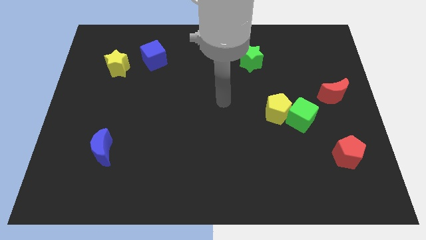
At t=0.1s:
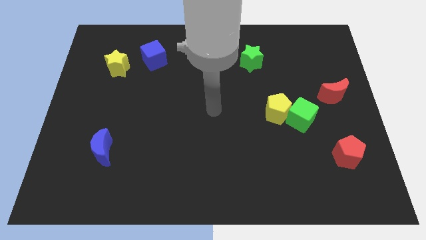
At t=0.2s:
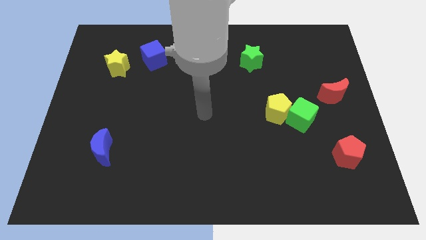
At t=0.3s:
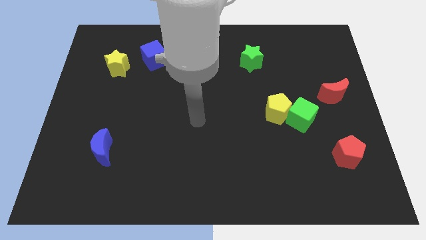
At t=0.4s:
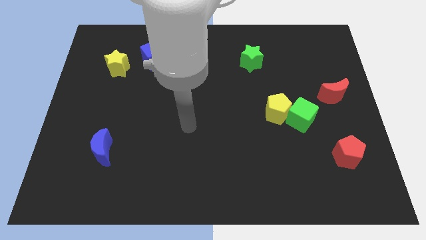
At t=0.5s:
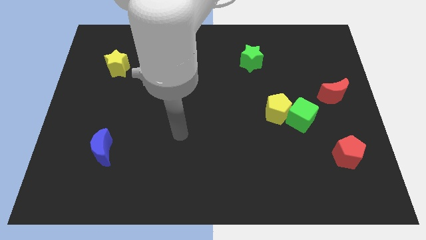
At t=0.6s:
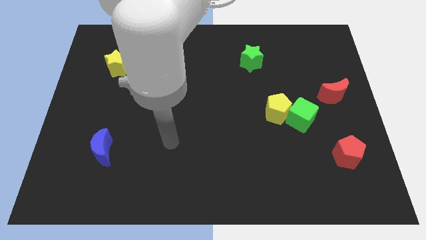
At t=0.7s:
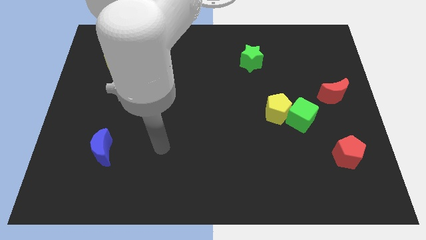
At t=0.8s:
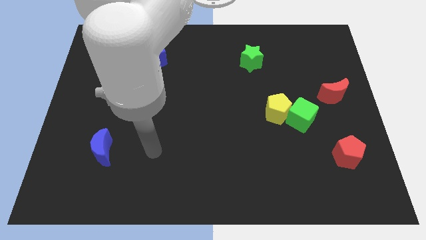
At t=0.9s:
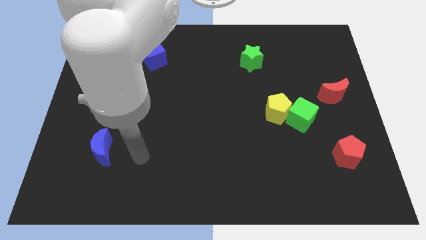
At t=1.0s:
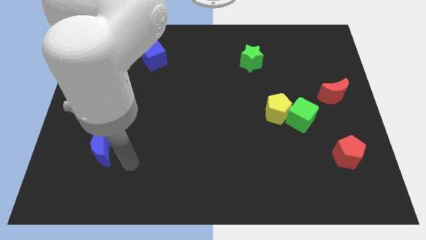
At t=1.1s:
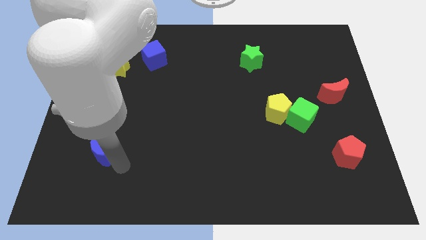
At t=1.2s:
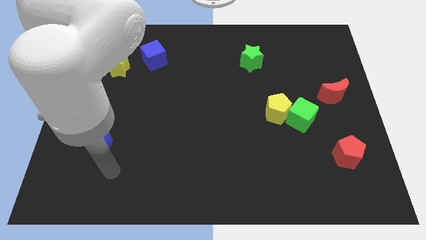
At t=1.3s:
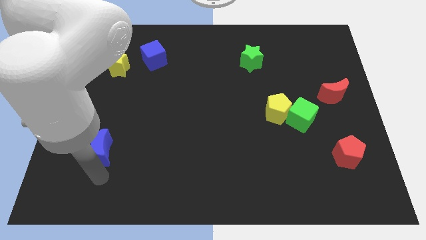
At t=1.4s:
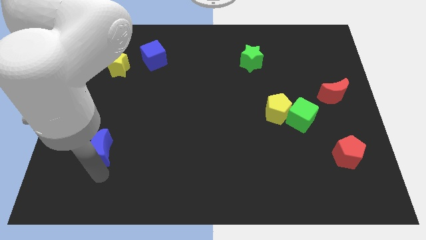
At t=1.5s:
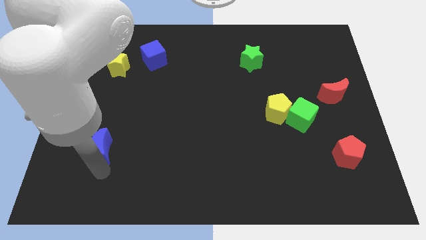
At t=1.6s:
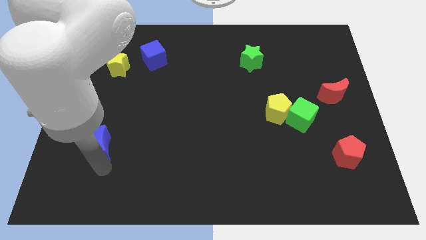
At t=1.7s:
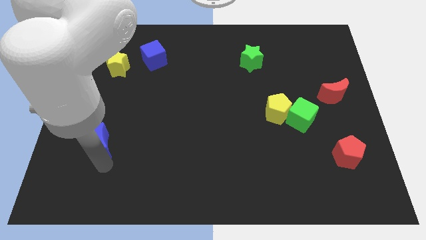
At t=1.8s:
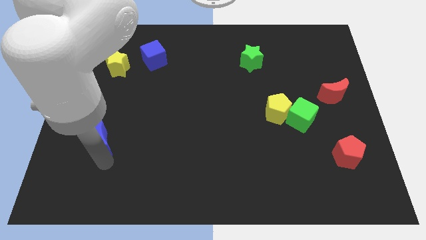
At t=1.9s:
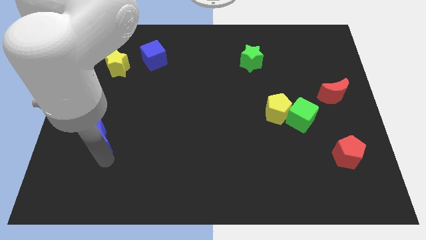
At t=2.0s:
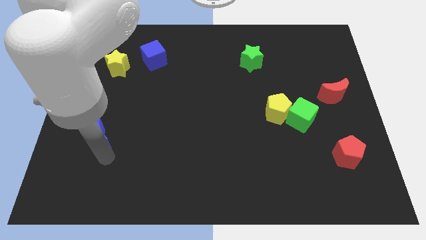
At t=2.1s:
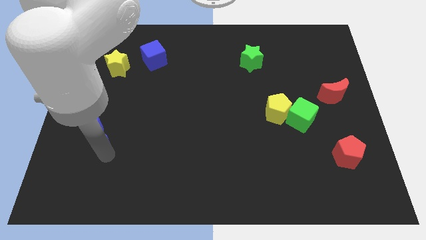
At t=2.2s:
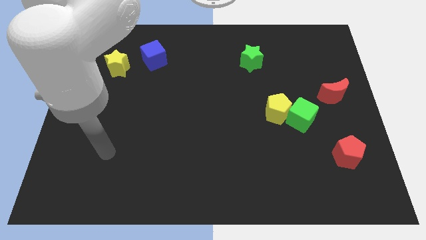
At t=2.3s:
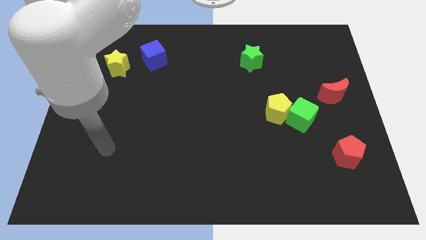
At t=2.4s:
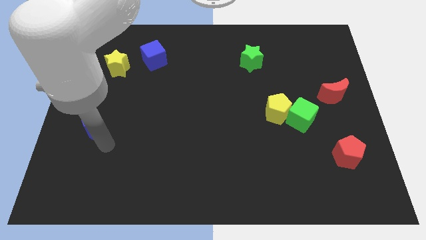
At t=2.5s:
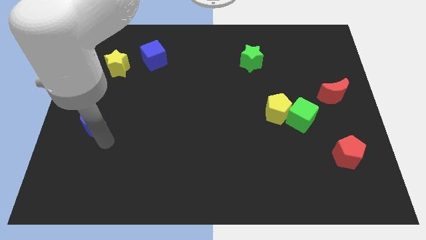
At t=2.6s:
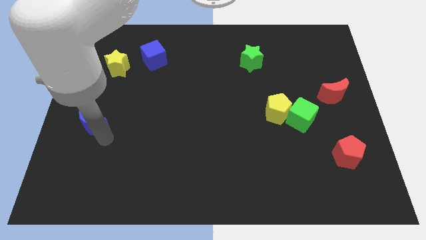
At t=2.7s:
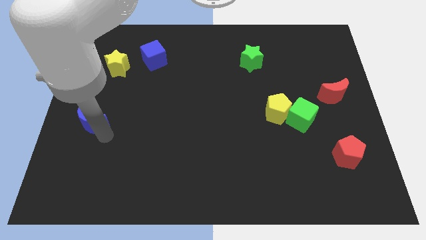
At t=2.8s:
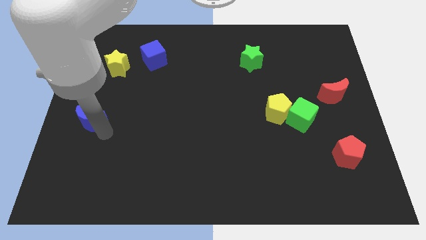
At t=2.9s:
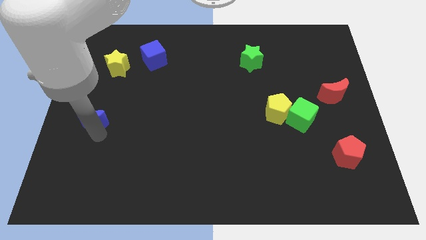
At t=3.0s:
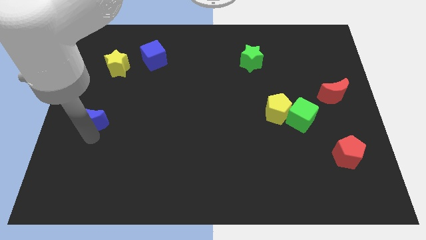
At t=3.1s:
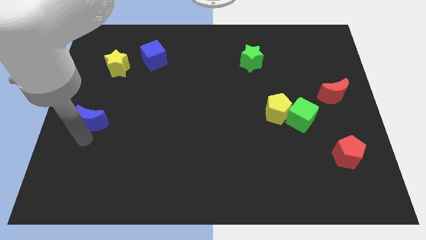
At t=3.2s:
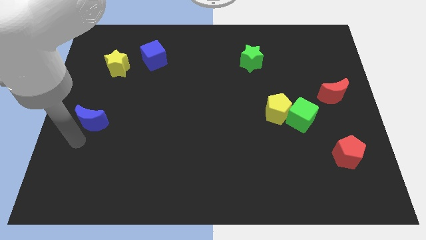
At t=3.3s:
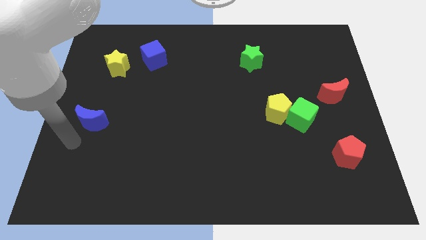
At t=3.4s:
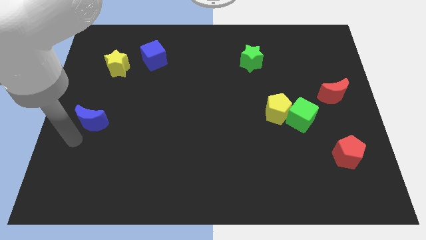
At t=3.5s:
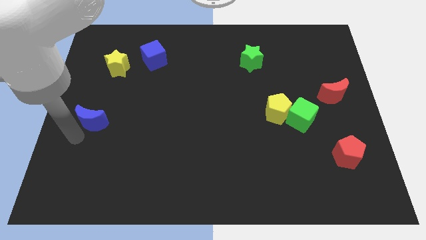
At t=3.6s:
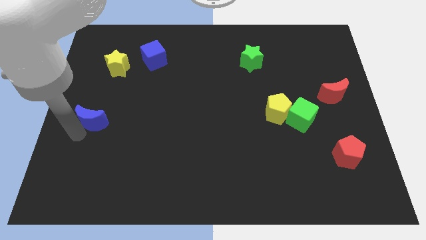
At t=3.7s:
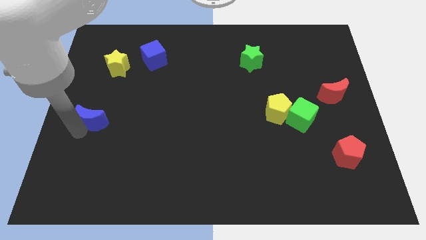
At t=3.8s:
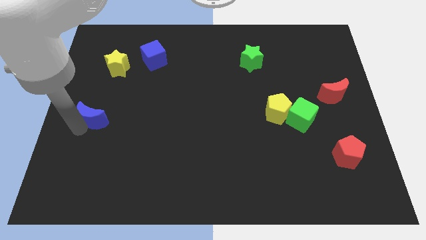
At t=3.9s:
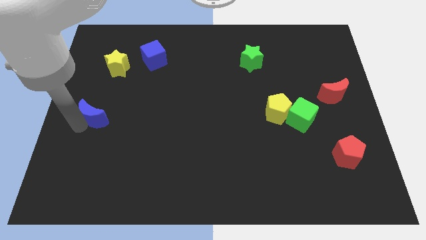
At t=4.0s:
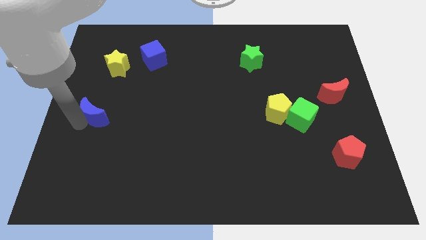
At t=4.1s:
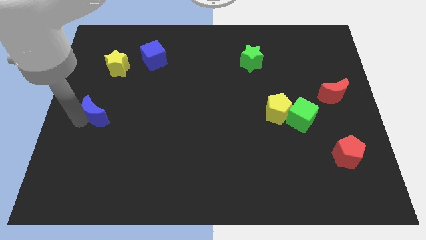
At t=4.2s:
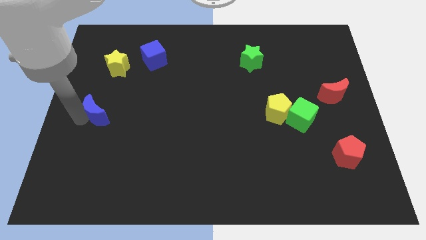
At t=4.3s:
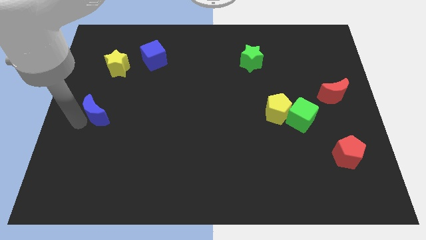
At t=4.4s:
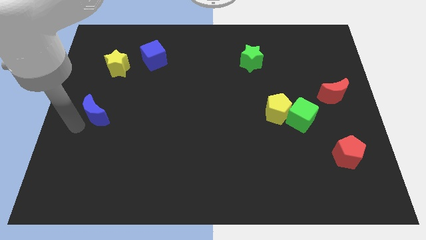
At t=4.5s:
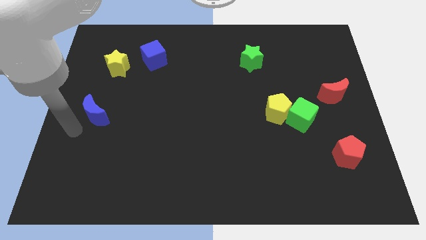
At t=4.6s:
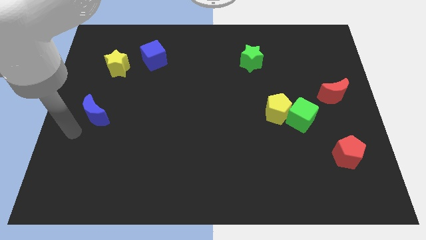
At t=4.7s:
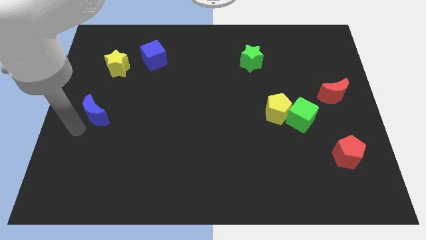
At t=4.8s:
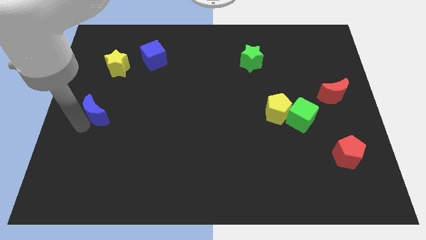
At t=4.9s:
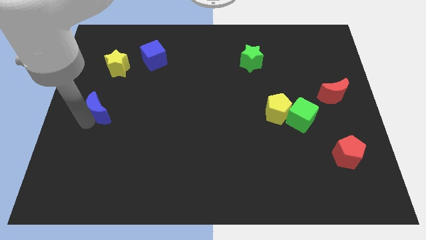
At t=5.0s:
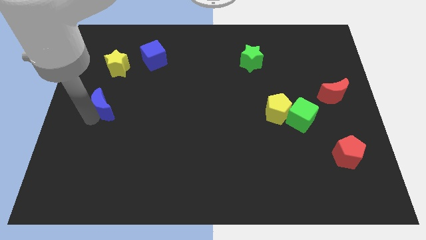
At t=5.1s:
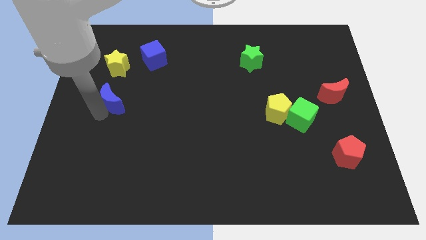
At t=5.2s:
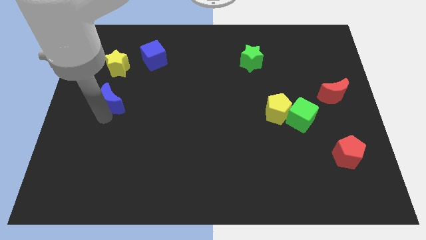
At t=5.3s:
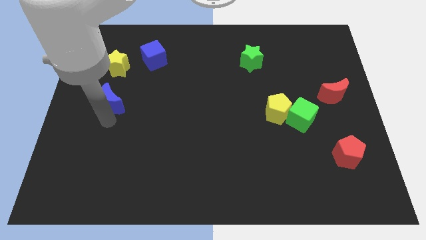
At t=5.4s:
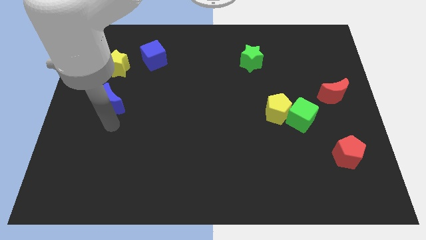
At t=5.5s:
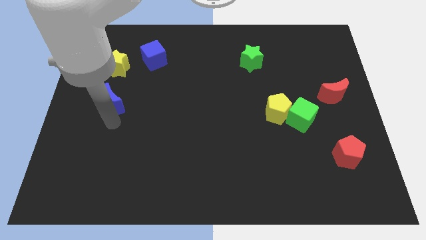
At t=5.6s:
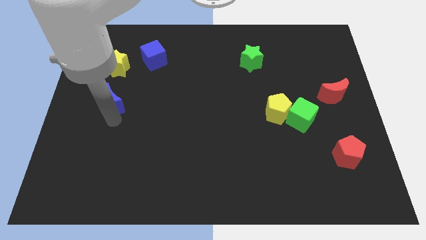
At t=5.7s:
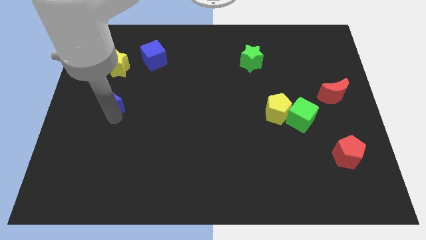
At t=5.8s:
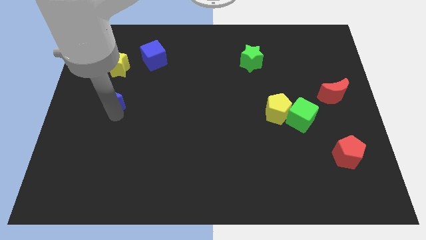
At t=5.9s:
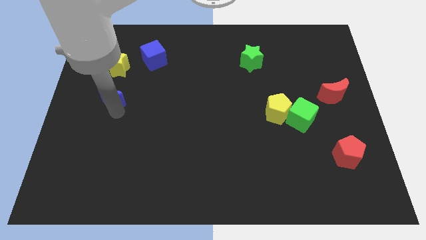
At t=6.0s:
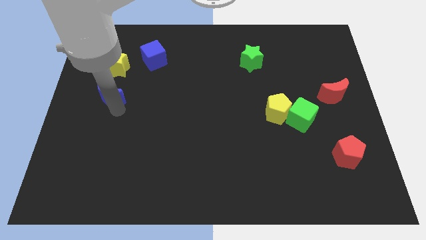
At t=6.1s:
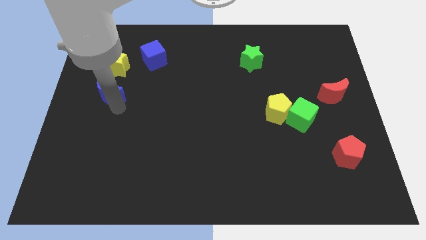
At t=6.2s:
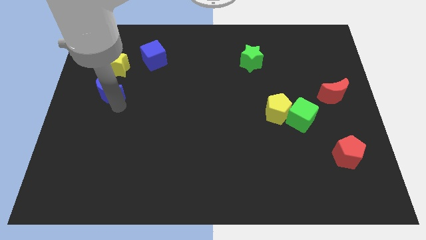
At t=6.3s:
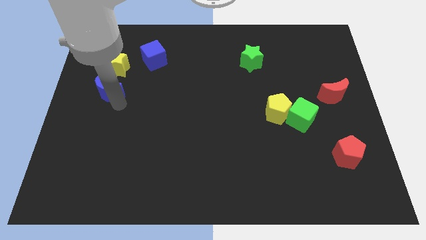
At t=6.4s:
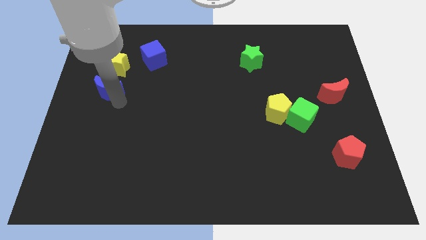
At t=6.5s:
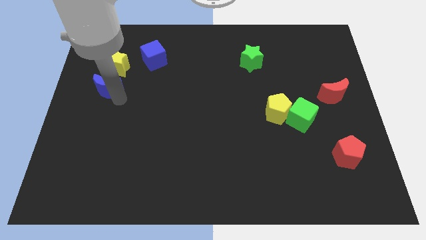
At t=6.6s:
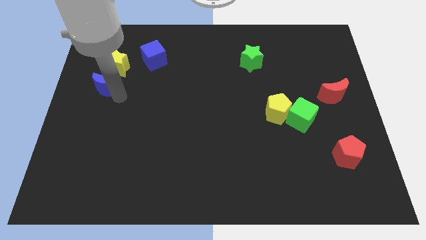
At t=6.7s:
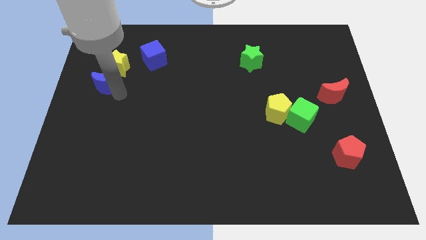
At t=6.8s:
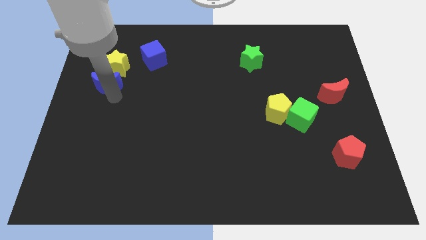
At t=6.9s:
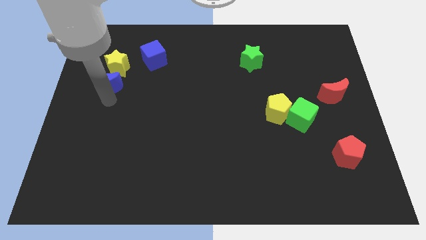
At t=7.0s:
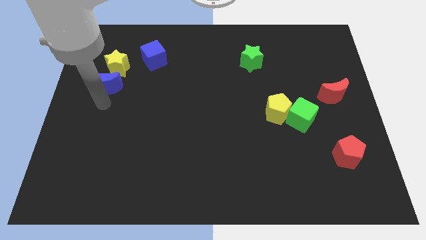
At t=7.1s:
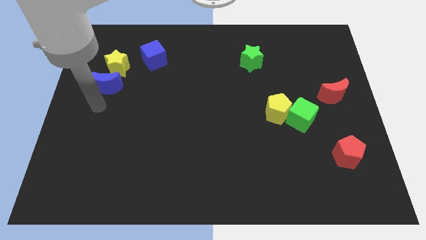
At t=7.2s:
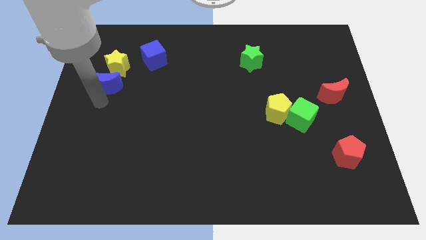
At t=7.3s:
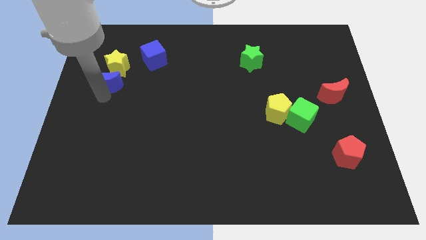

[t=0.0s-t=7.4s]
push the blue moon close to the yellow star
